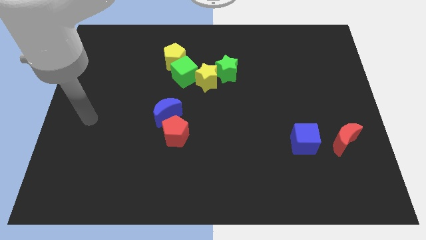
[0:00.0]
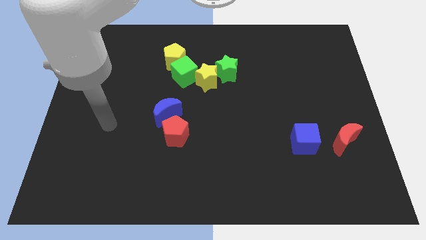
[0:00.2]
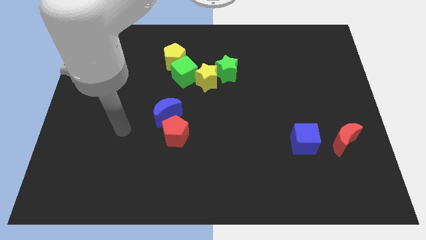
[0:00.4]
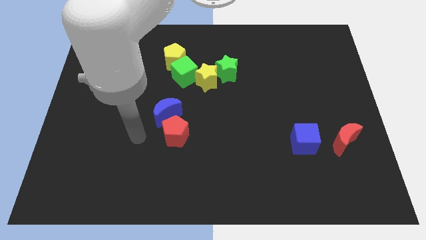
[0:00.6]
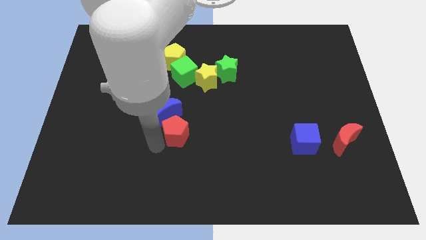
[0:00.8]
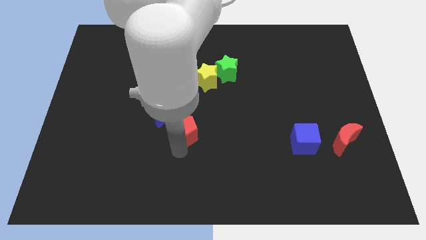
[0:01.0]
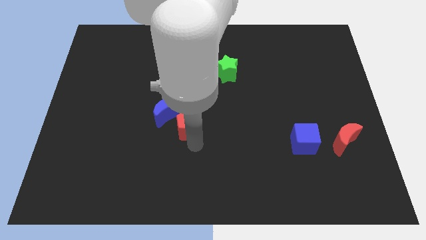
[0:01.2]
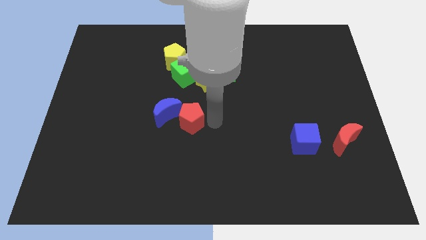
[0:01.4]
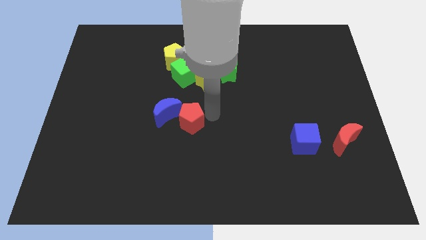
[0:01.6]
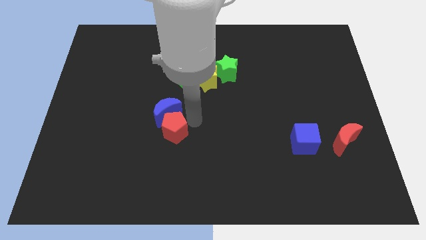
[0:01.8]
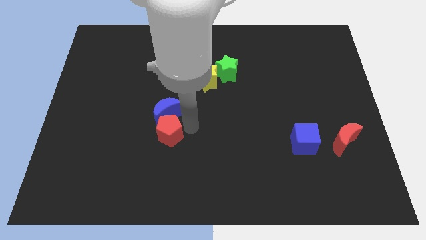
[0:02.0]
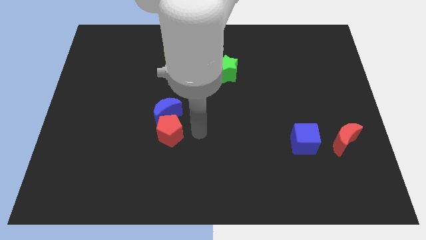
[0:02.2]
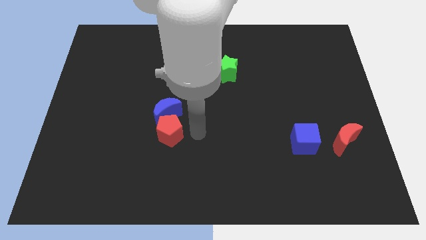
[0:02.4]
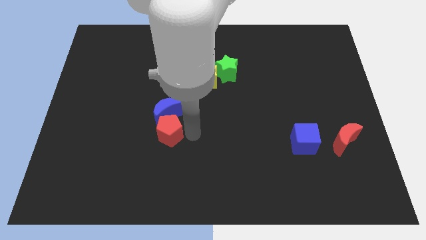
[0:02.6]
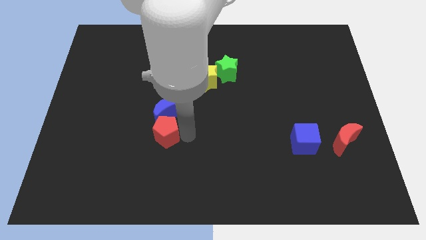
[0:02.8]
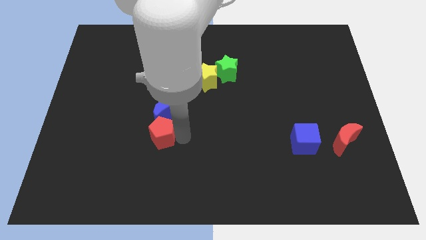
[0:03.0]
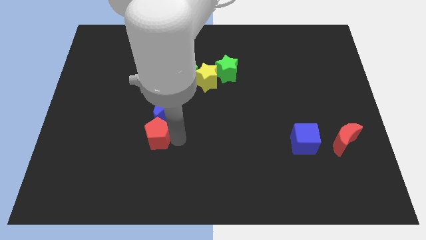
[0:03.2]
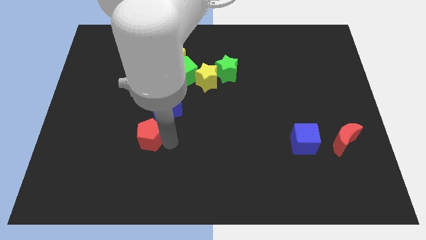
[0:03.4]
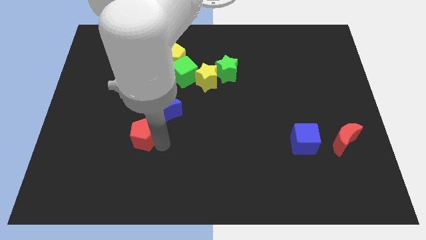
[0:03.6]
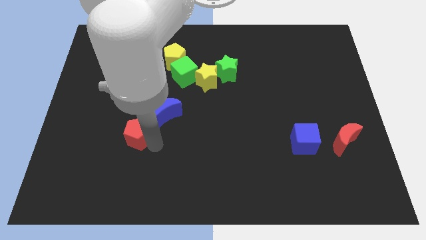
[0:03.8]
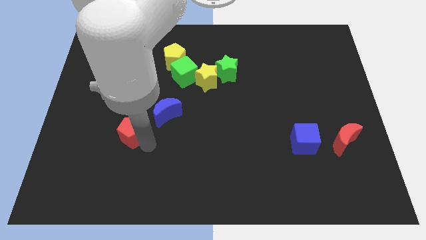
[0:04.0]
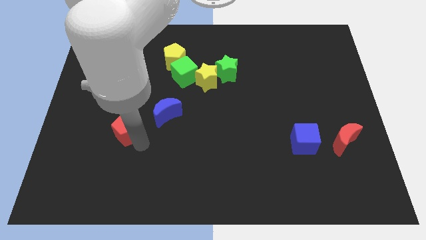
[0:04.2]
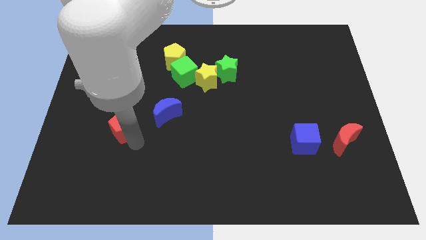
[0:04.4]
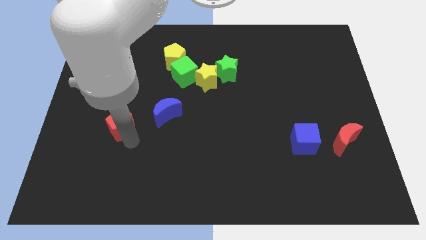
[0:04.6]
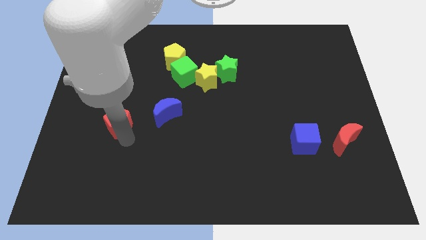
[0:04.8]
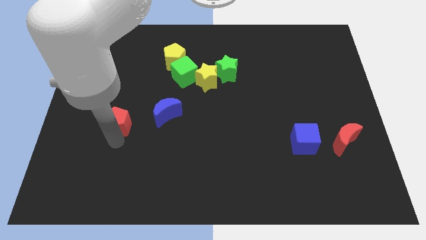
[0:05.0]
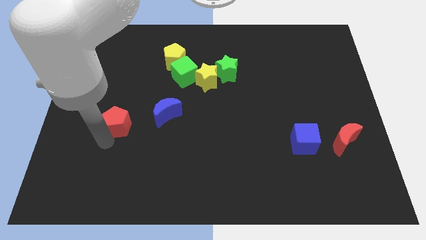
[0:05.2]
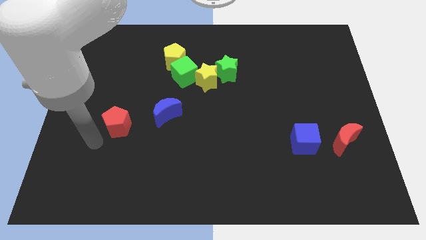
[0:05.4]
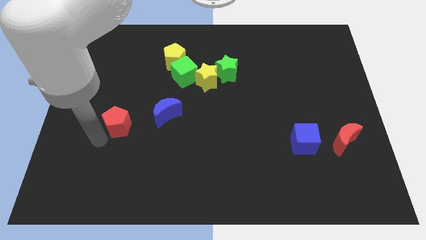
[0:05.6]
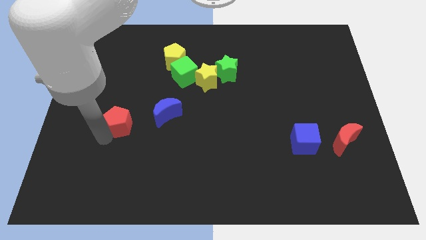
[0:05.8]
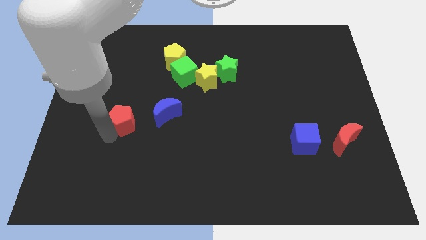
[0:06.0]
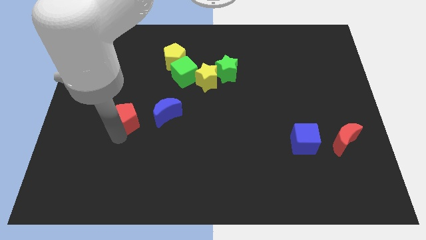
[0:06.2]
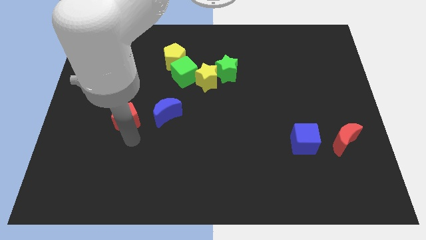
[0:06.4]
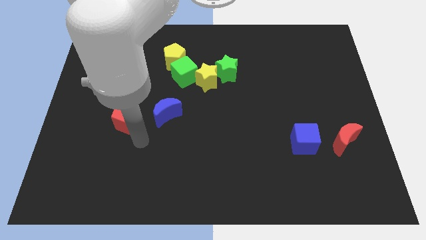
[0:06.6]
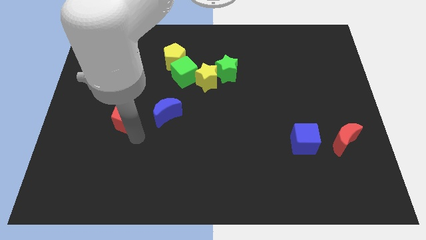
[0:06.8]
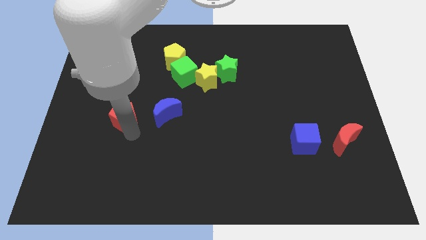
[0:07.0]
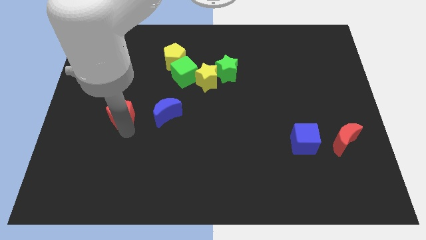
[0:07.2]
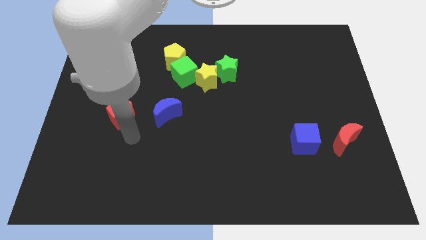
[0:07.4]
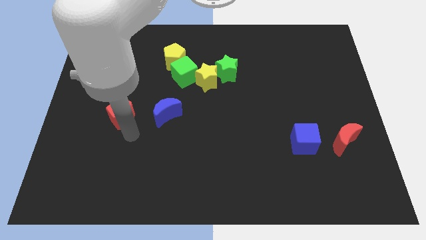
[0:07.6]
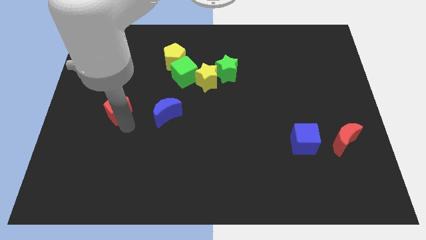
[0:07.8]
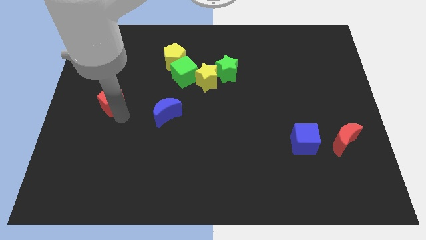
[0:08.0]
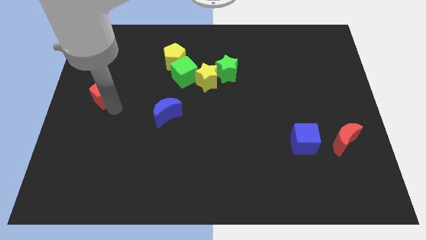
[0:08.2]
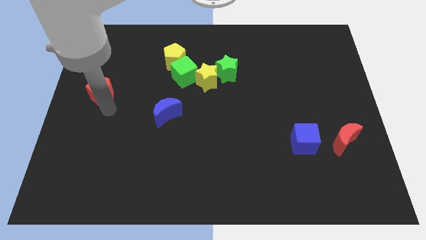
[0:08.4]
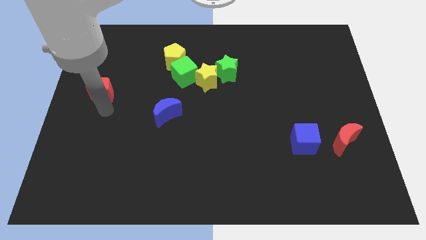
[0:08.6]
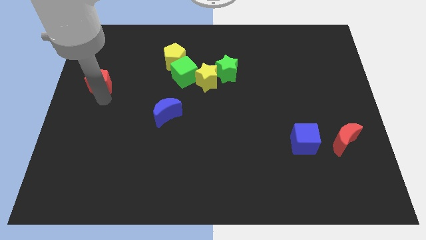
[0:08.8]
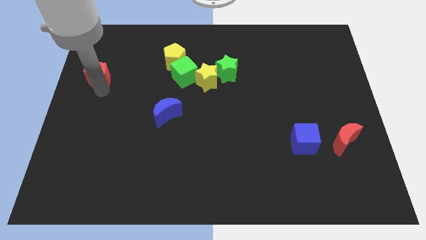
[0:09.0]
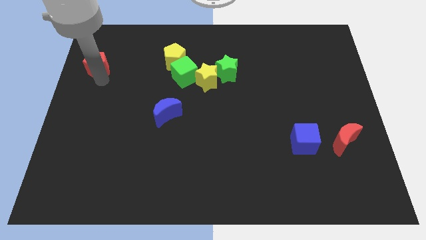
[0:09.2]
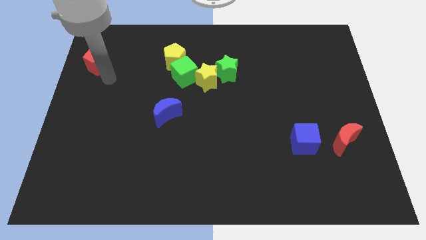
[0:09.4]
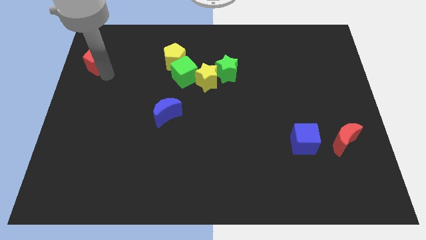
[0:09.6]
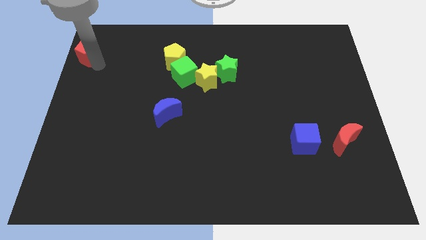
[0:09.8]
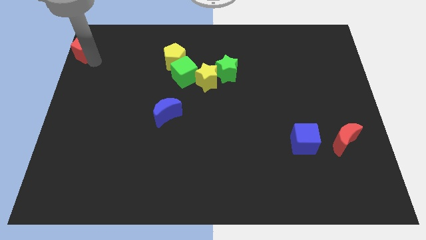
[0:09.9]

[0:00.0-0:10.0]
move the red pentagon to the upper left corner

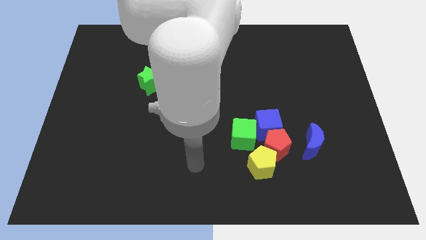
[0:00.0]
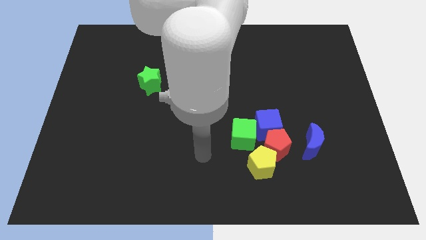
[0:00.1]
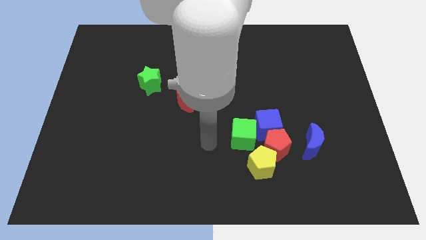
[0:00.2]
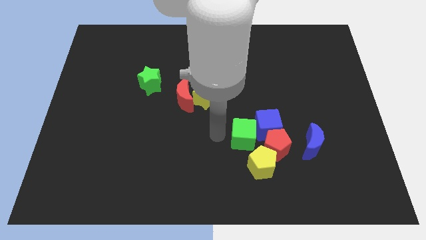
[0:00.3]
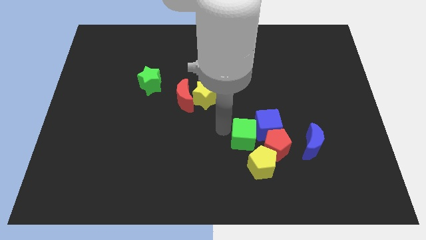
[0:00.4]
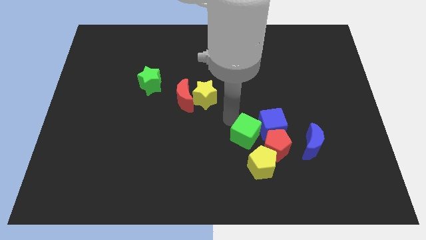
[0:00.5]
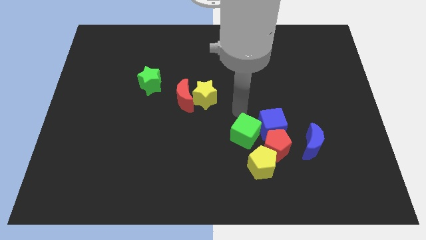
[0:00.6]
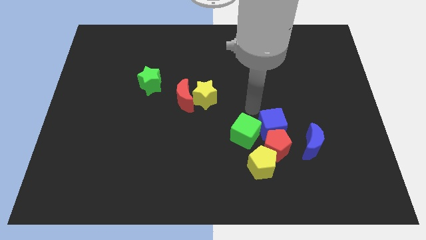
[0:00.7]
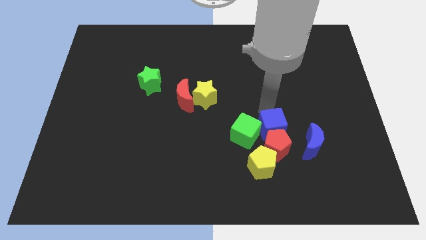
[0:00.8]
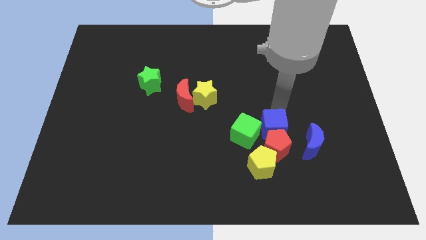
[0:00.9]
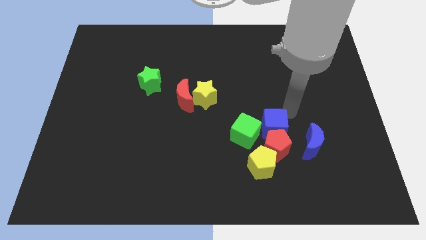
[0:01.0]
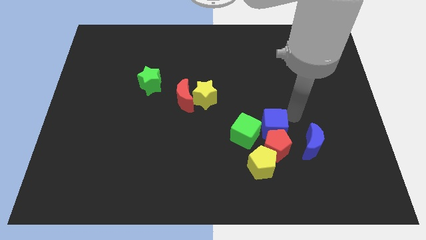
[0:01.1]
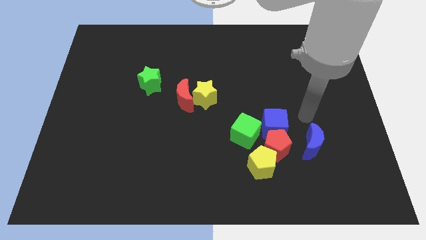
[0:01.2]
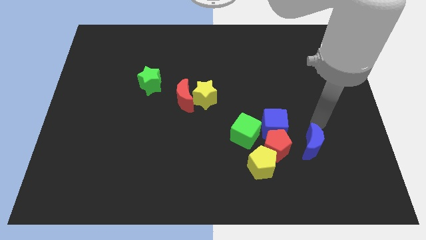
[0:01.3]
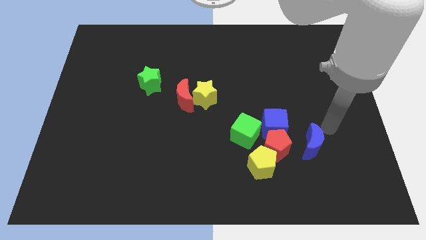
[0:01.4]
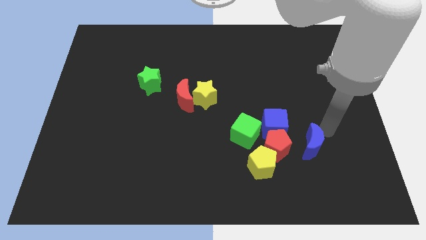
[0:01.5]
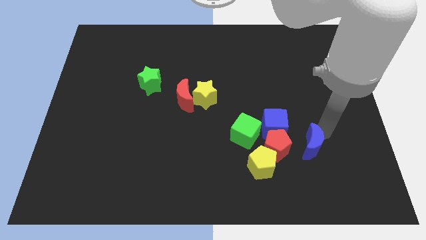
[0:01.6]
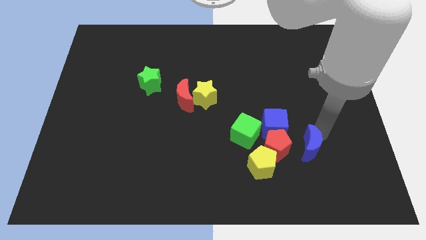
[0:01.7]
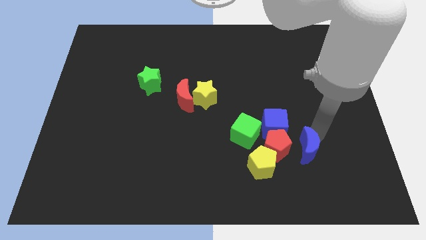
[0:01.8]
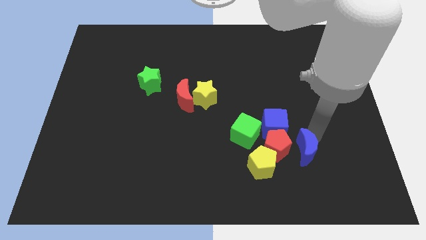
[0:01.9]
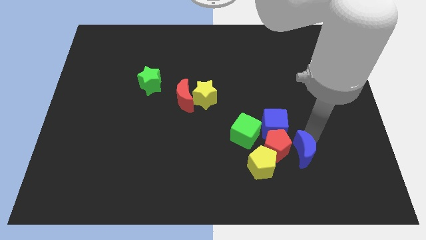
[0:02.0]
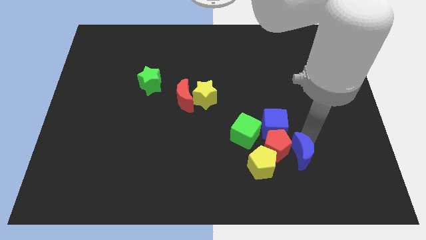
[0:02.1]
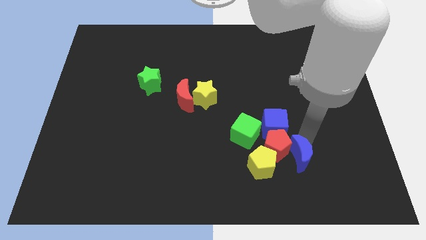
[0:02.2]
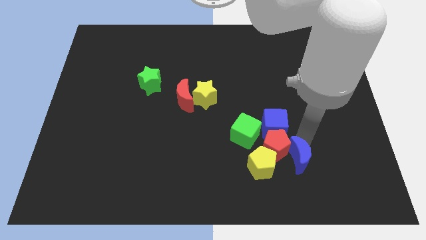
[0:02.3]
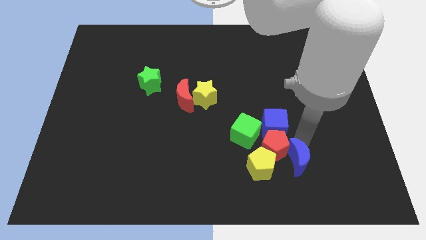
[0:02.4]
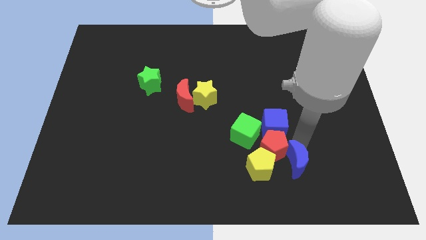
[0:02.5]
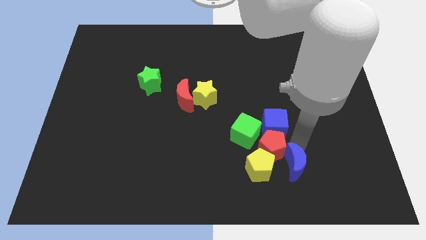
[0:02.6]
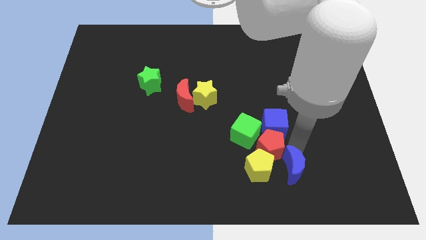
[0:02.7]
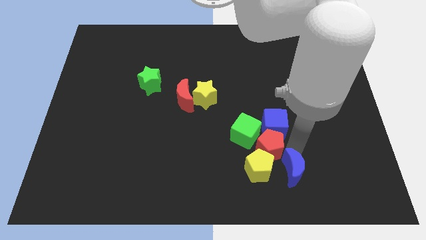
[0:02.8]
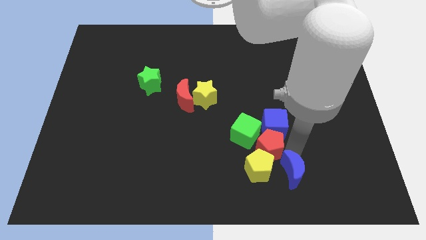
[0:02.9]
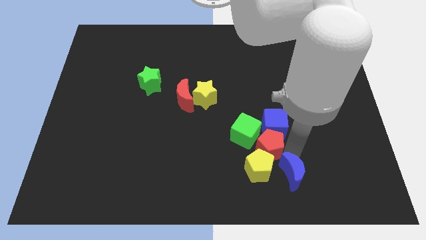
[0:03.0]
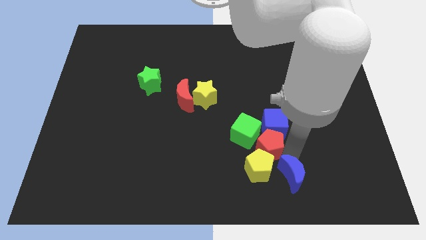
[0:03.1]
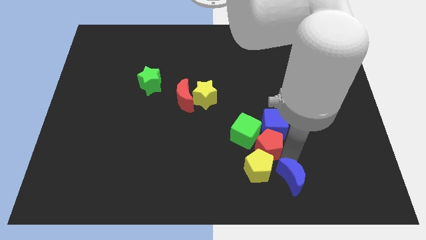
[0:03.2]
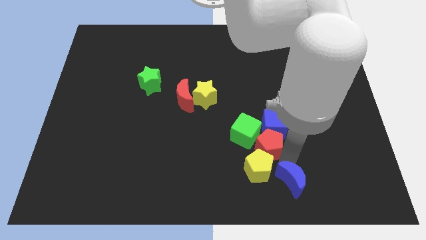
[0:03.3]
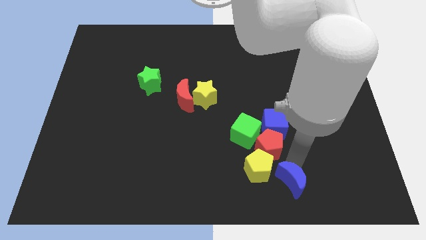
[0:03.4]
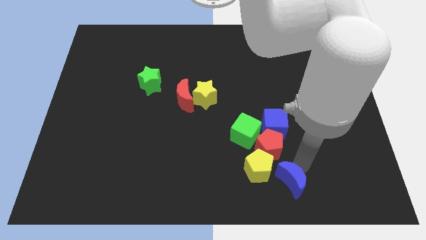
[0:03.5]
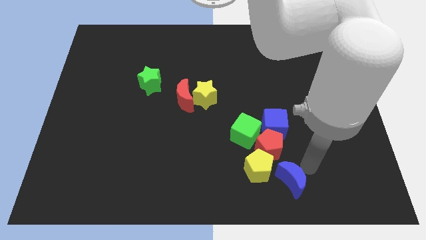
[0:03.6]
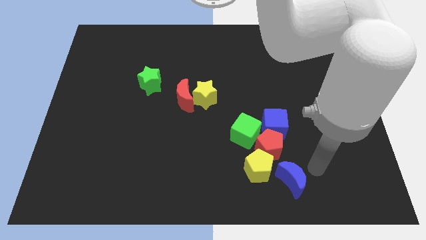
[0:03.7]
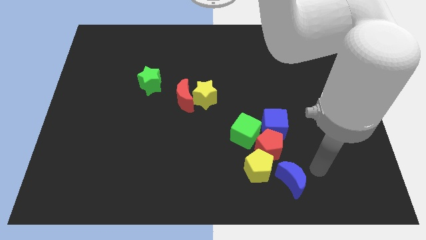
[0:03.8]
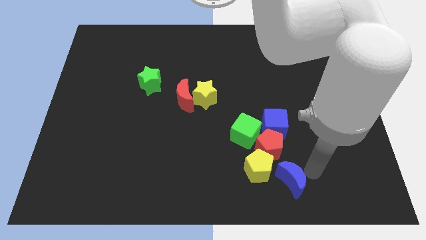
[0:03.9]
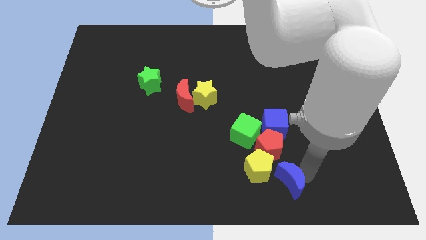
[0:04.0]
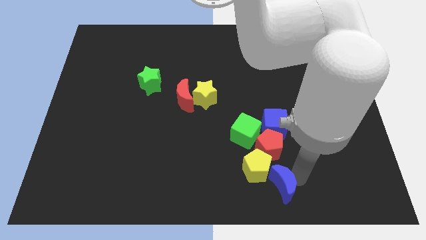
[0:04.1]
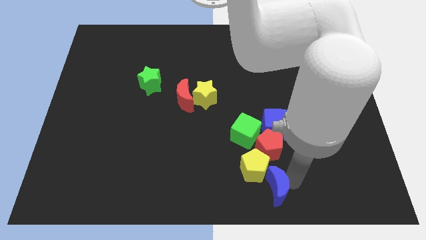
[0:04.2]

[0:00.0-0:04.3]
put the blue moon to the bottom
